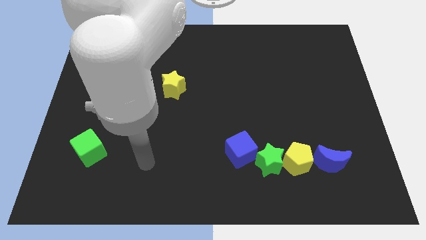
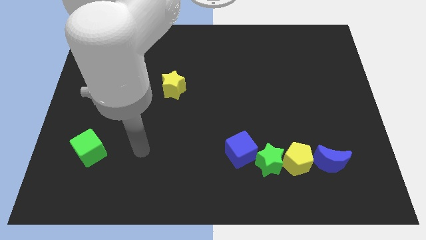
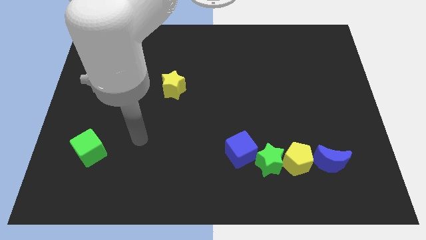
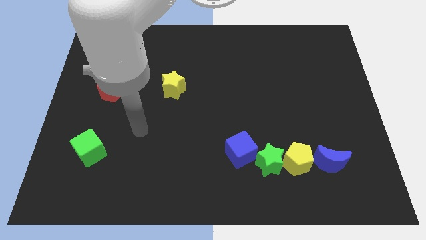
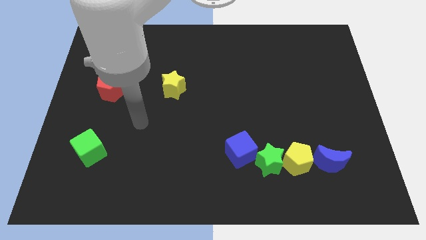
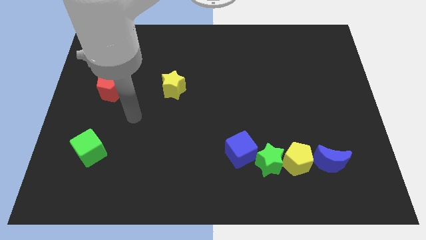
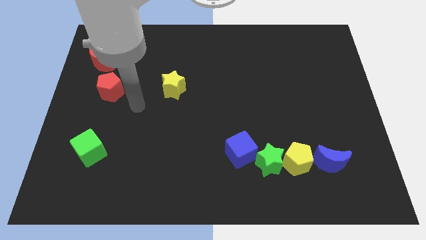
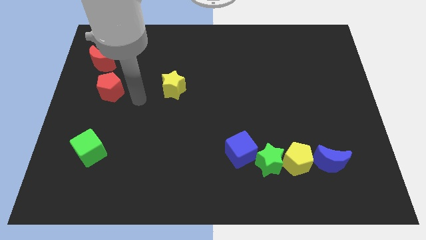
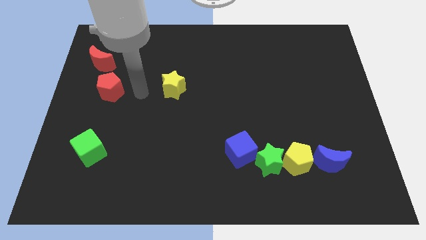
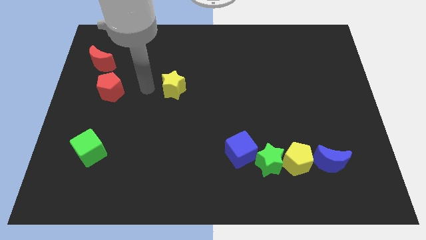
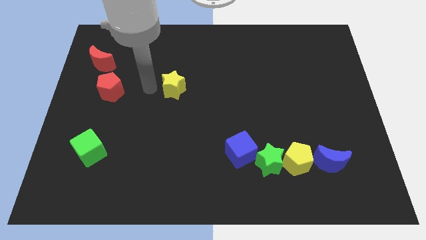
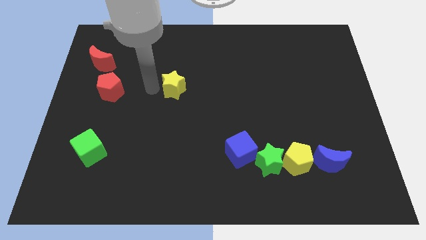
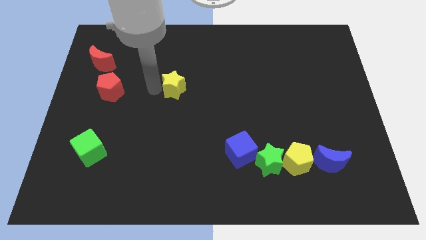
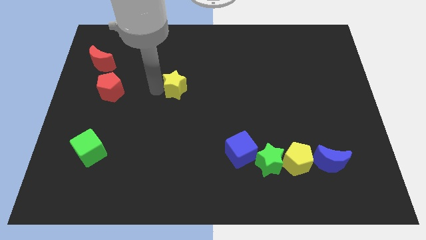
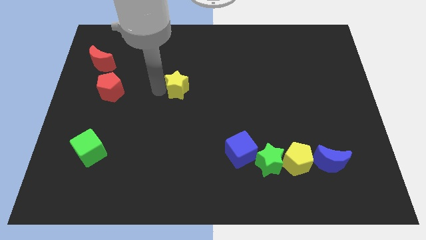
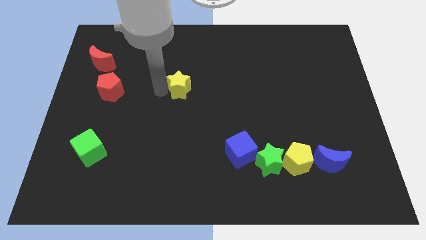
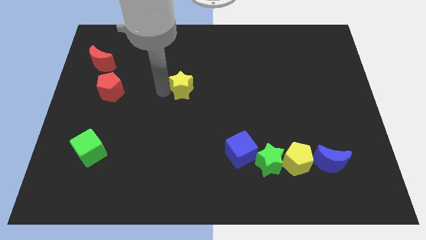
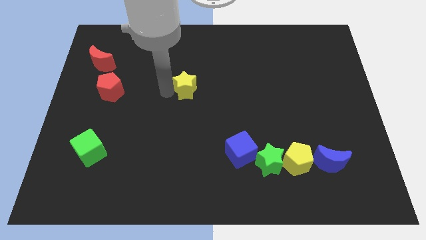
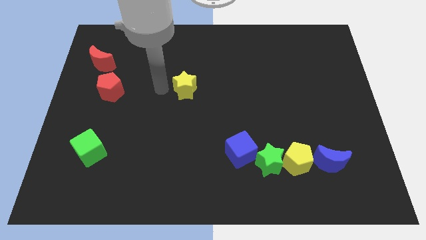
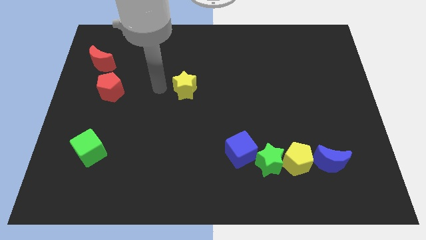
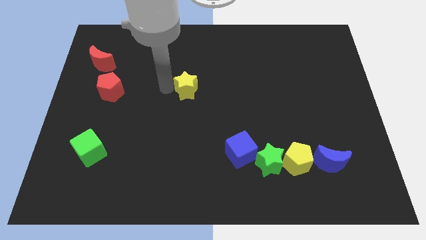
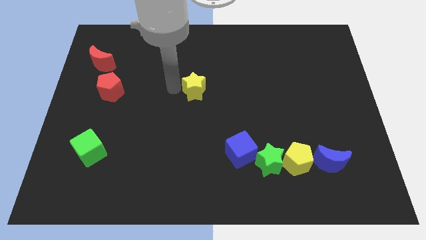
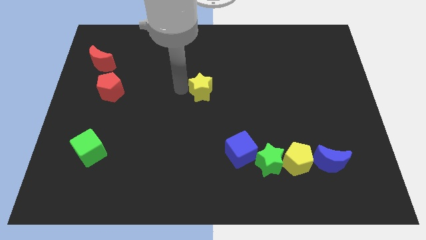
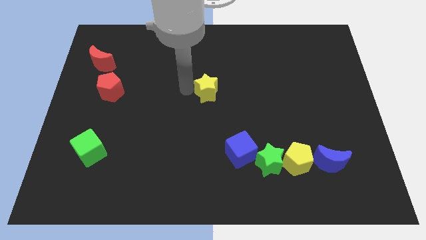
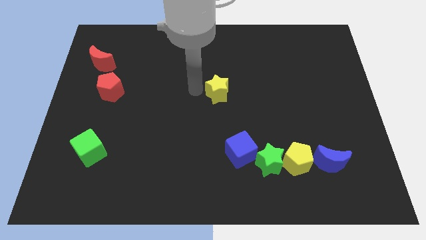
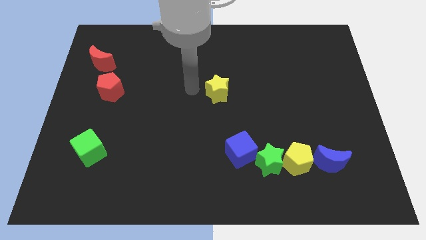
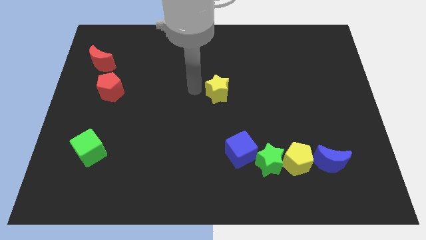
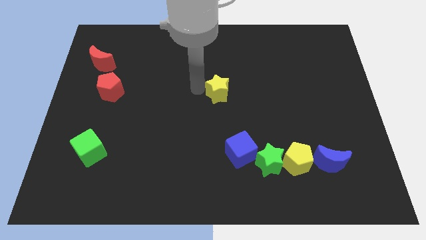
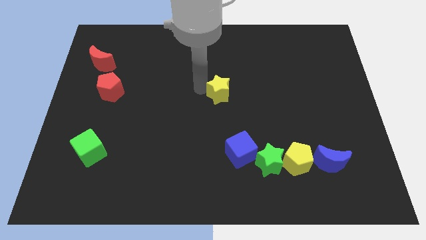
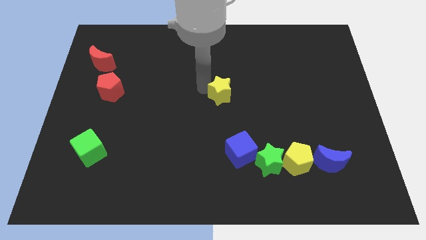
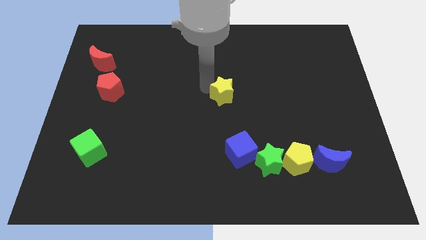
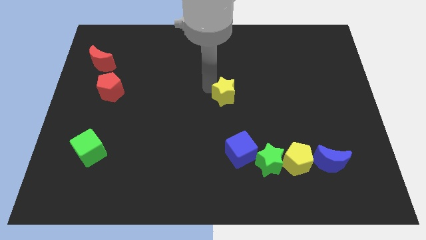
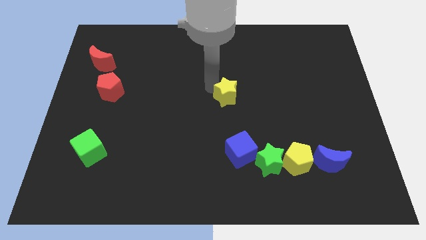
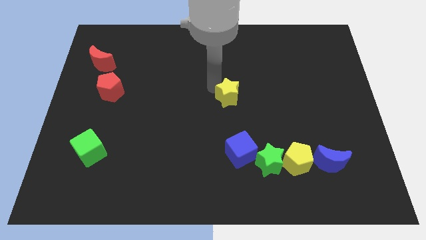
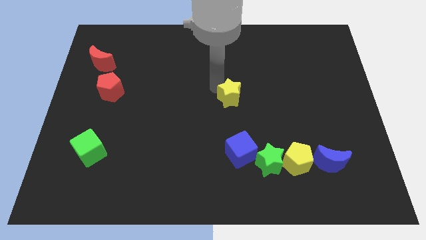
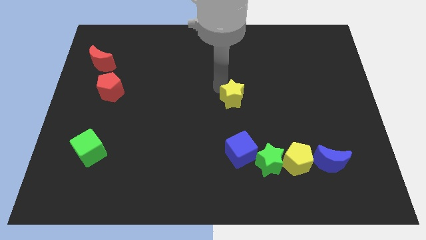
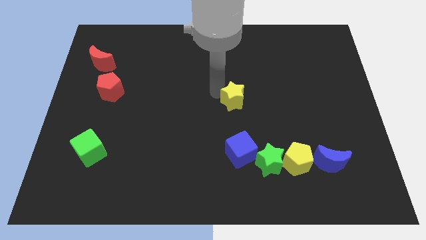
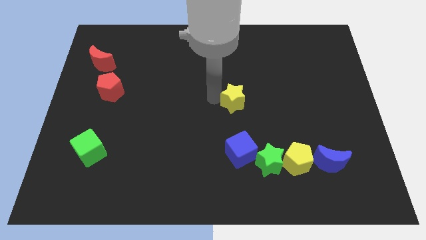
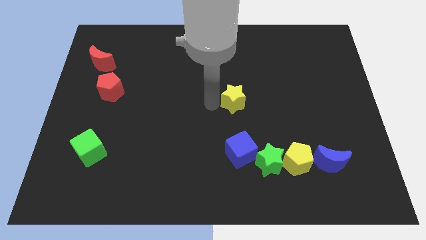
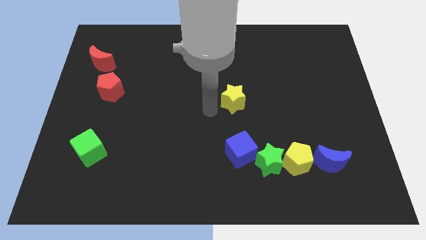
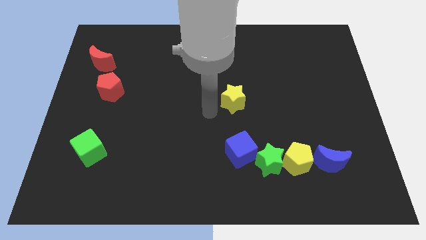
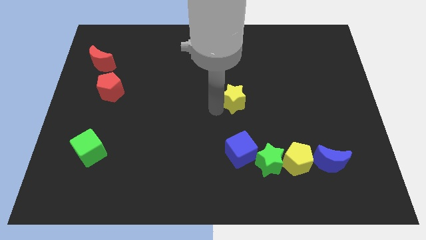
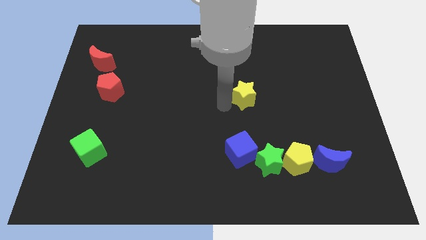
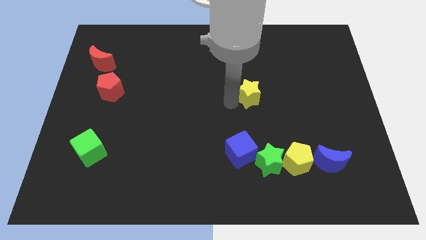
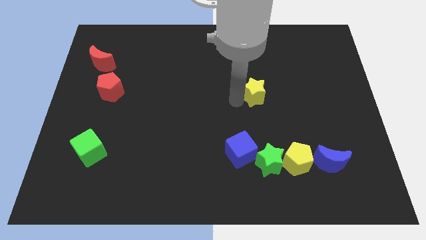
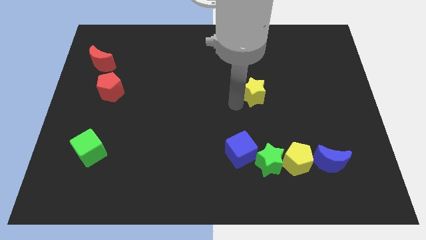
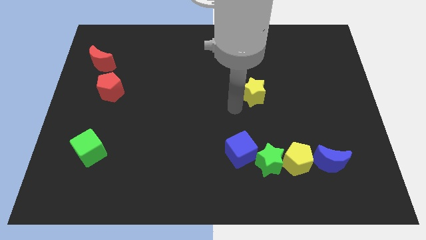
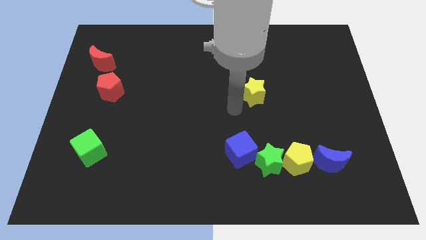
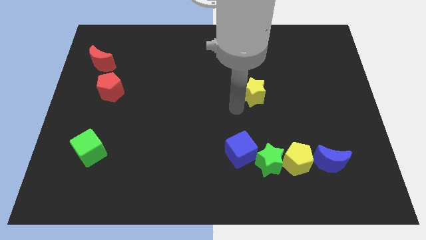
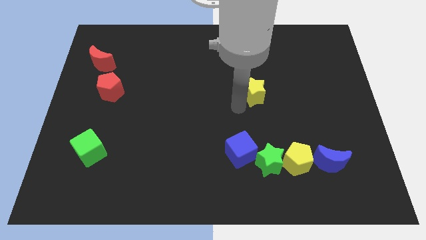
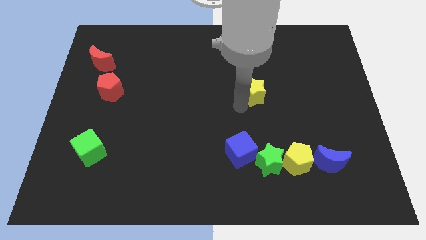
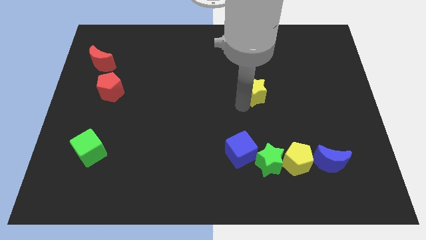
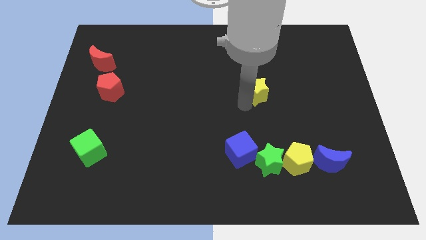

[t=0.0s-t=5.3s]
slide the yellow star right

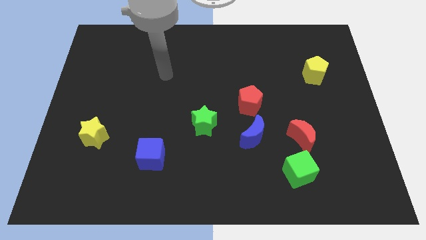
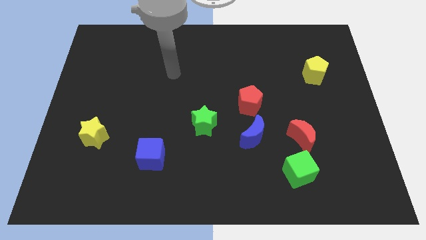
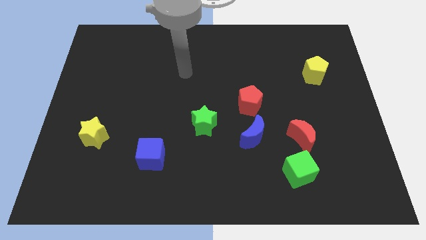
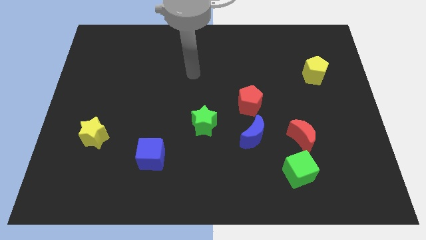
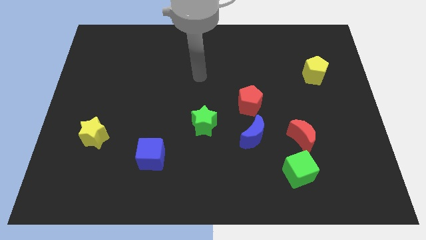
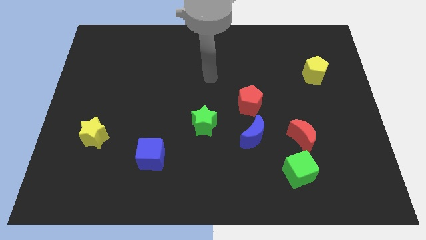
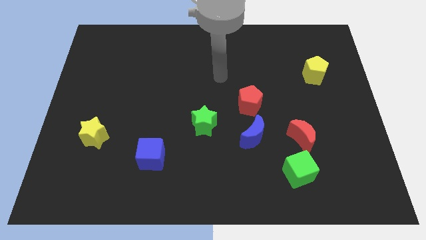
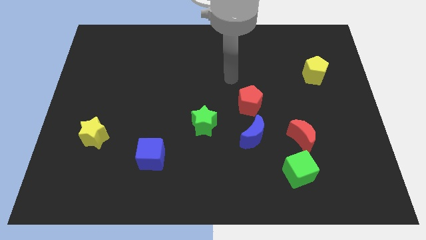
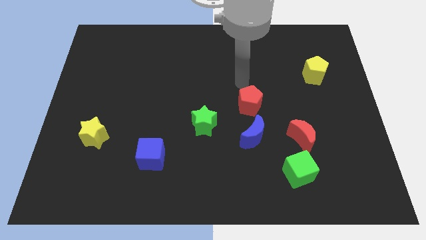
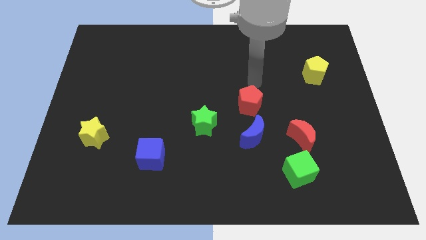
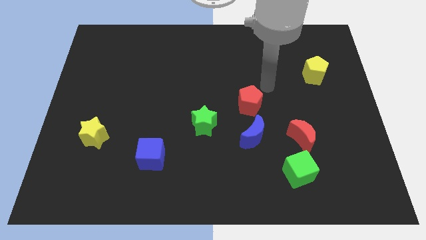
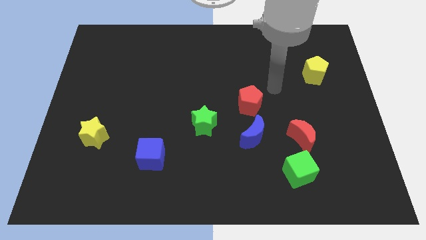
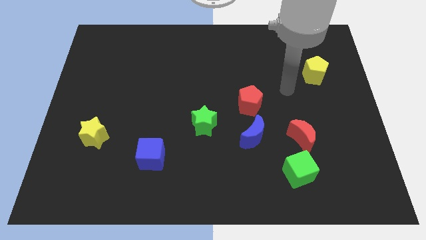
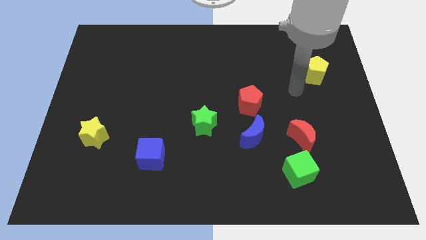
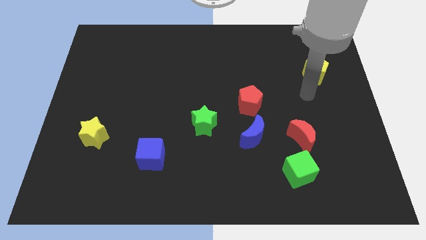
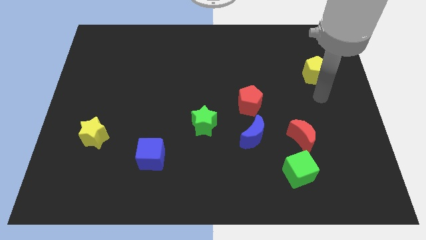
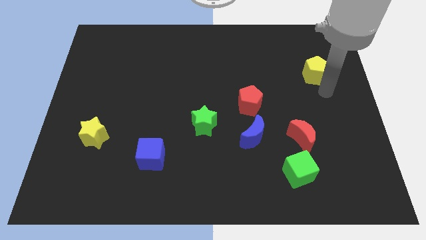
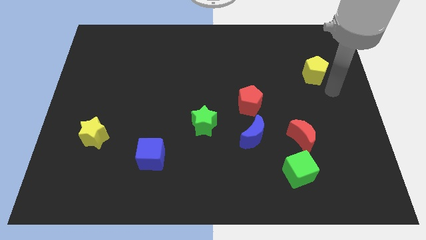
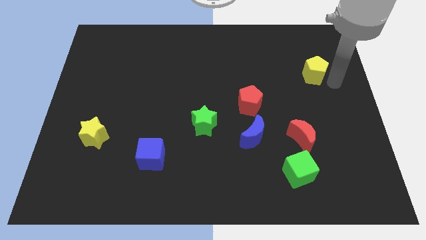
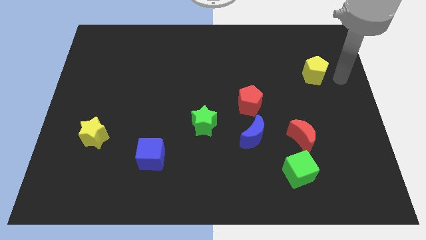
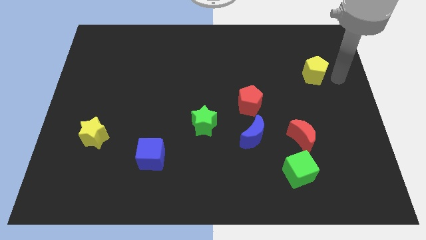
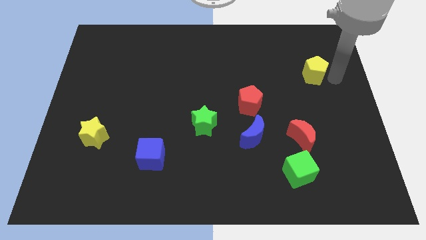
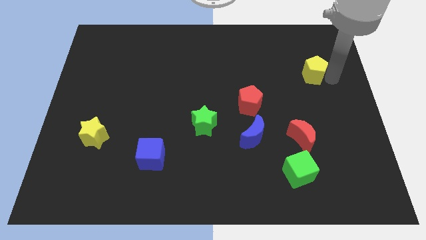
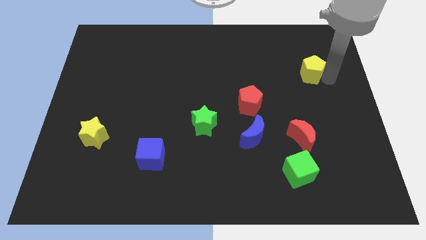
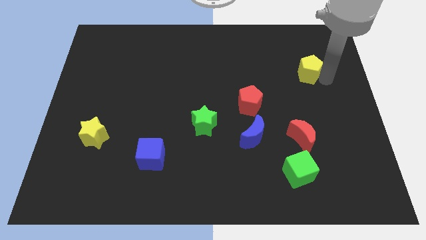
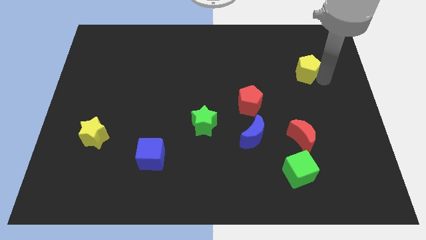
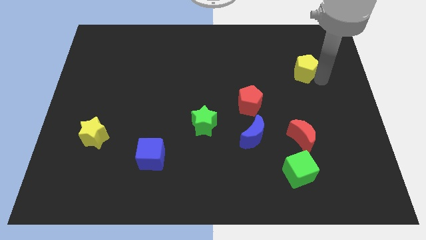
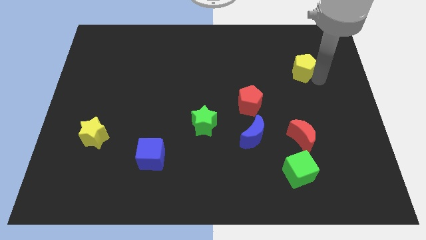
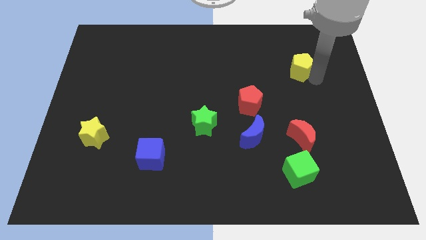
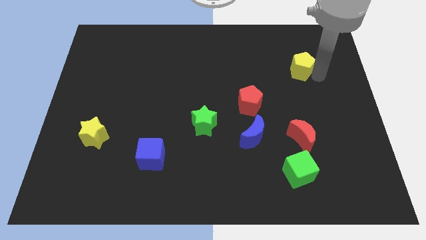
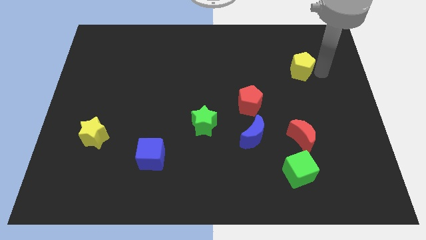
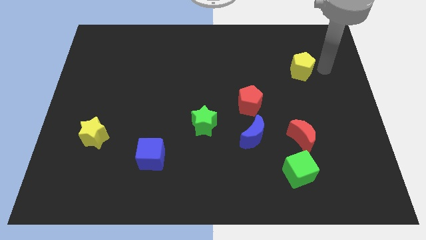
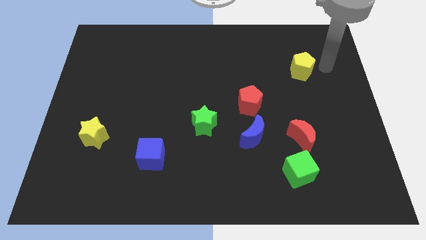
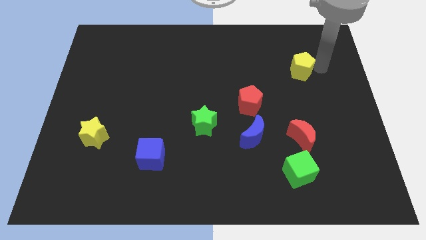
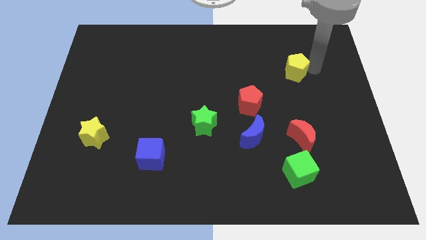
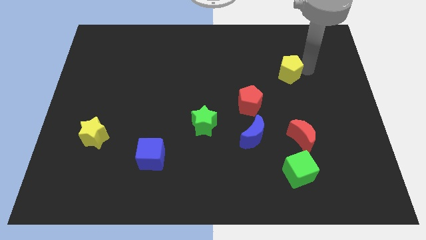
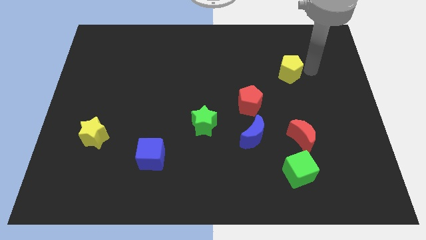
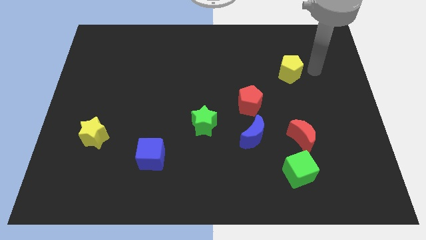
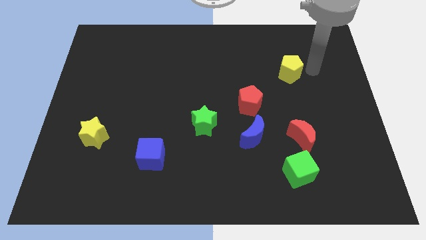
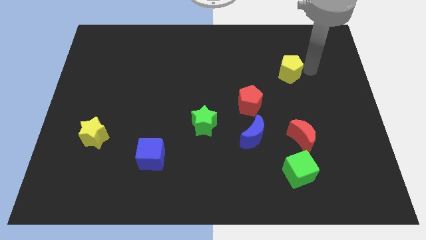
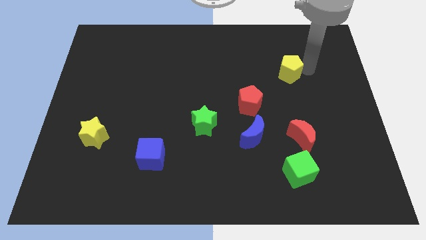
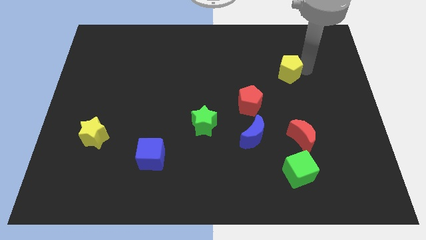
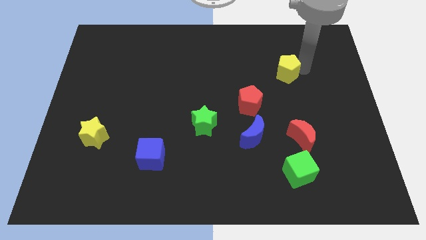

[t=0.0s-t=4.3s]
push the yellow pentagon a bit left
